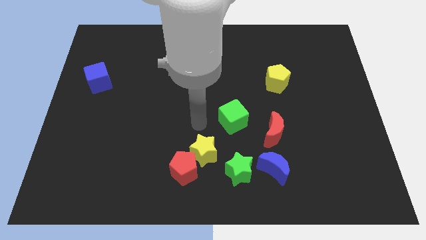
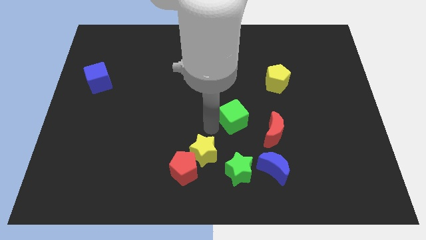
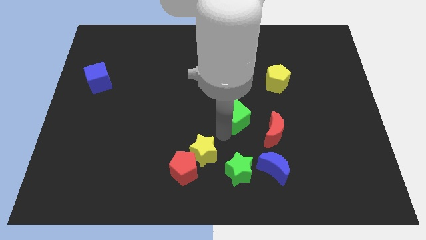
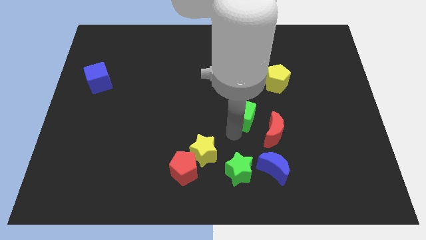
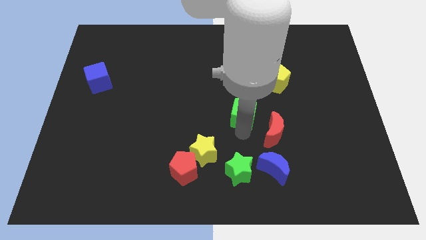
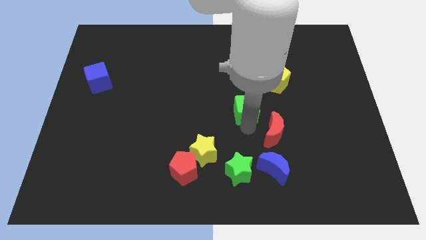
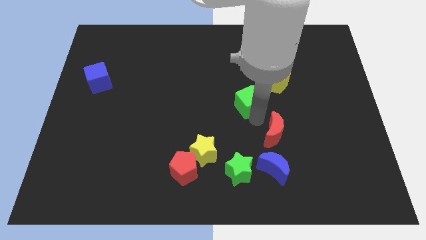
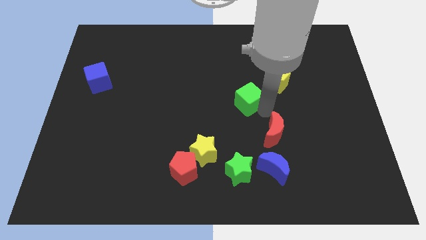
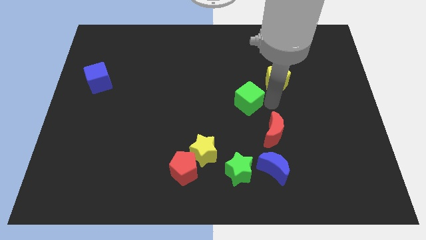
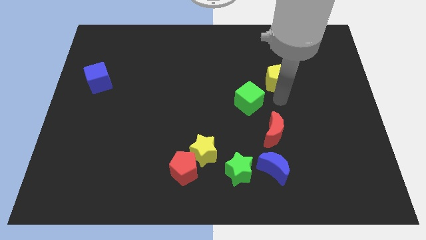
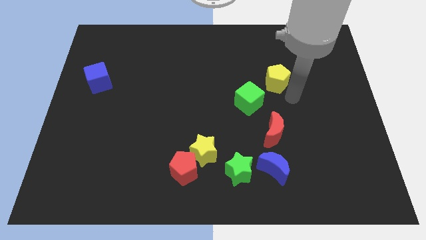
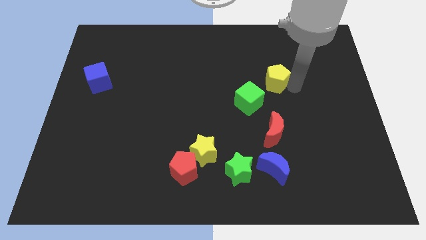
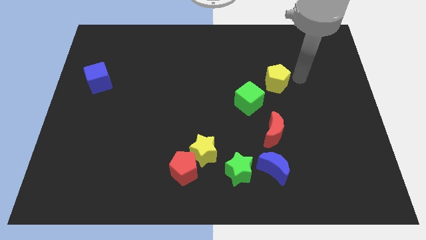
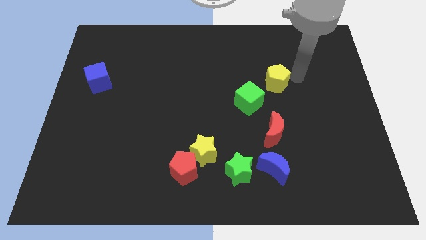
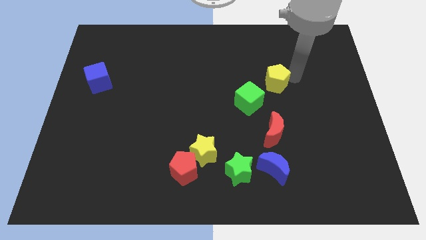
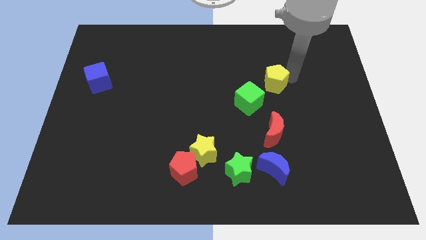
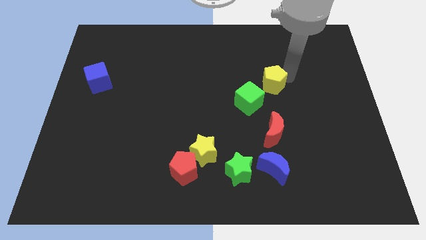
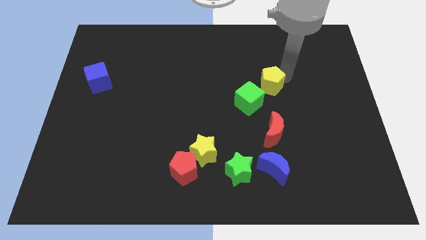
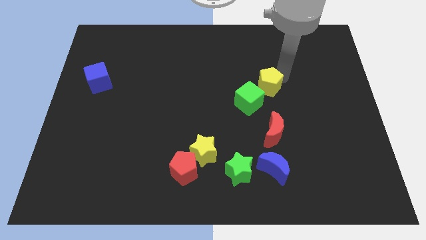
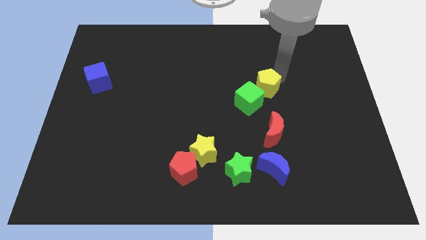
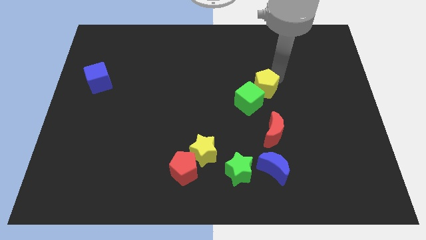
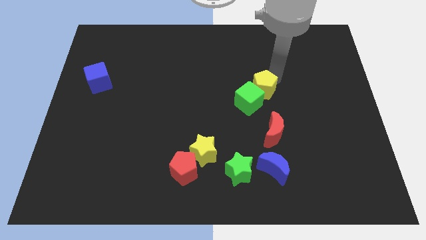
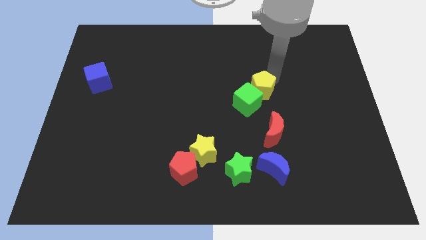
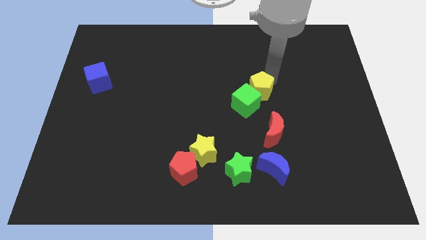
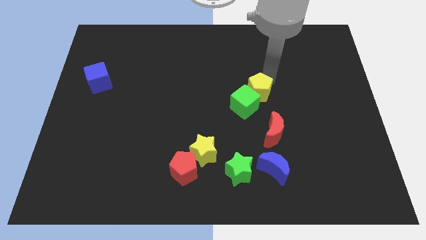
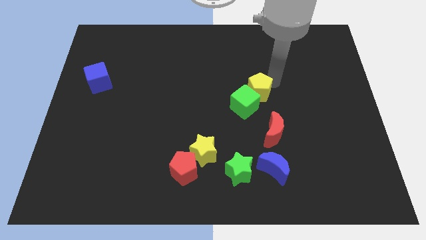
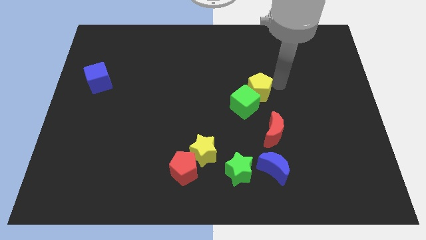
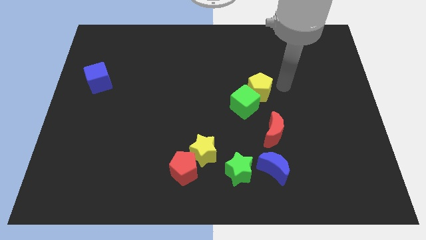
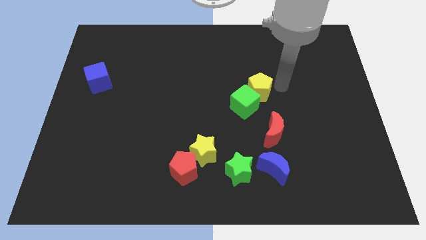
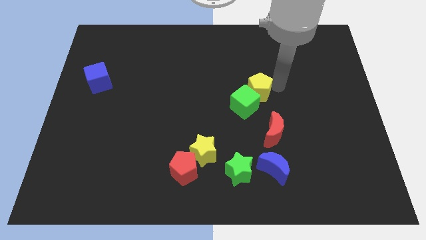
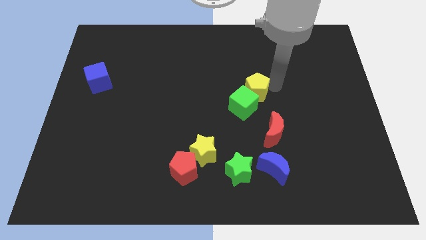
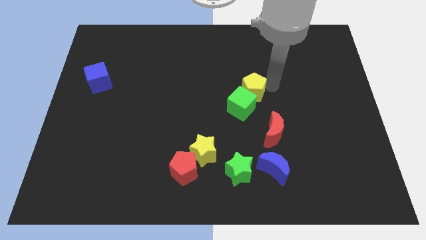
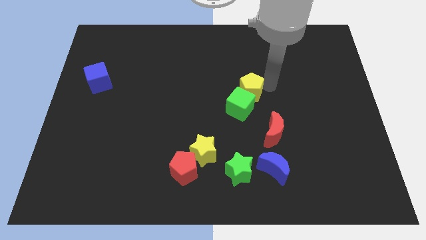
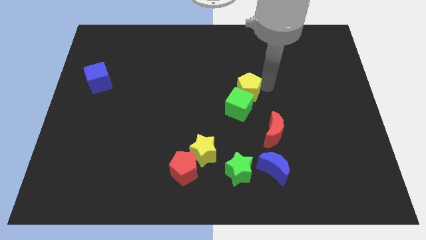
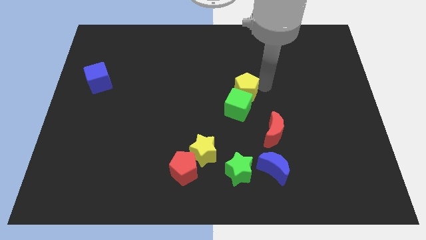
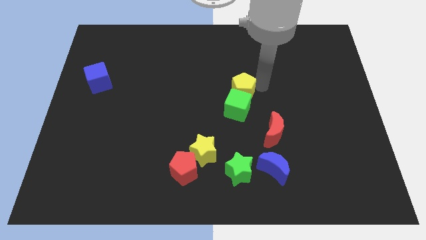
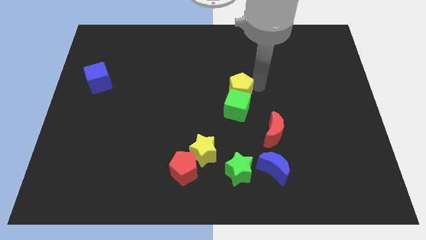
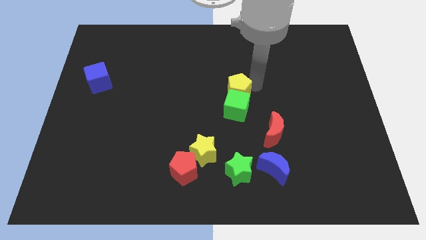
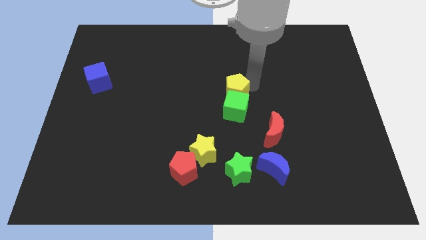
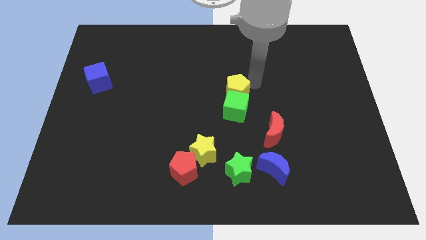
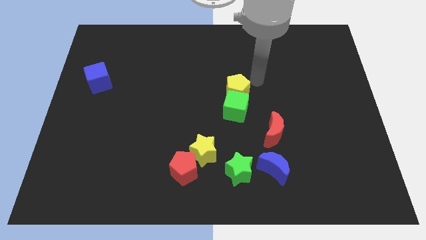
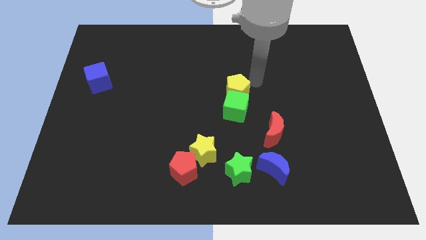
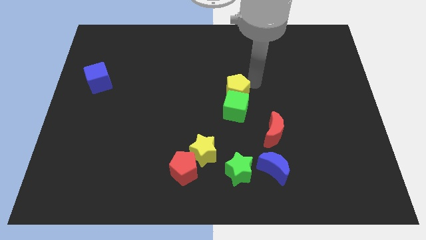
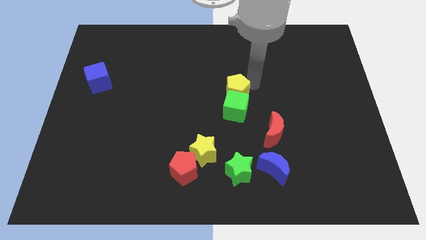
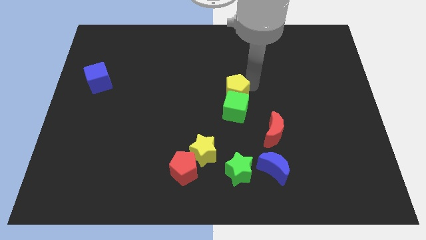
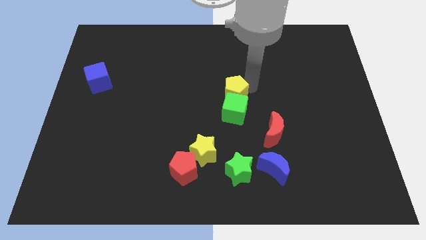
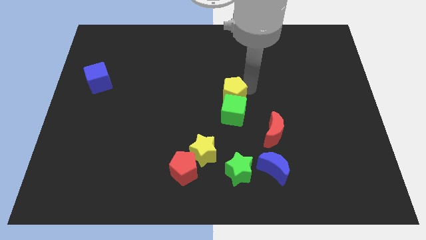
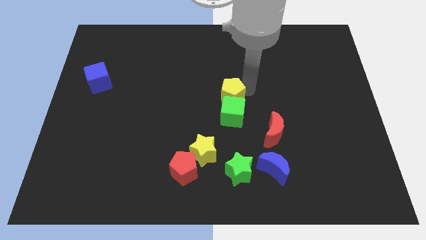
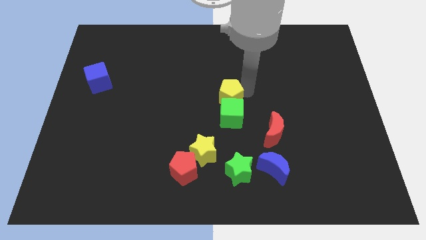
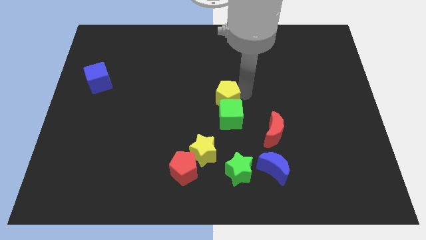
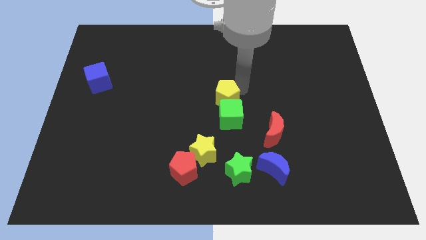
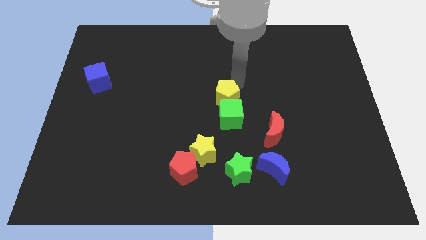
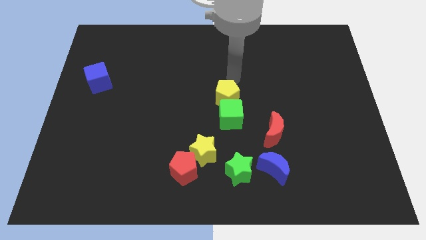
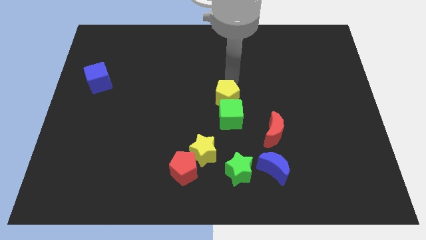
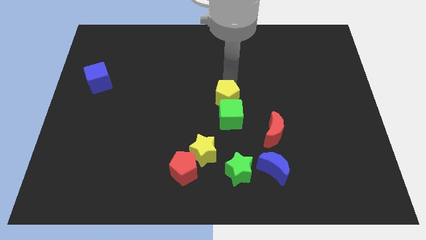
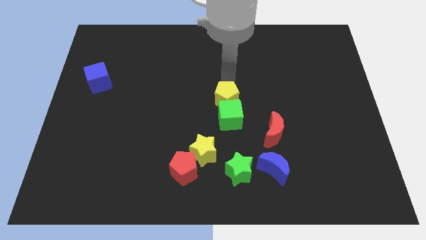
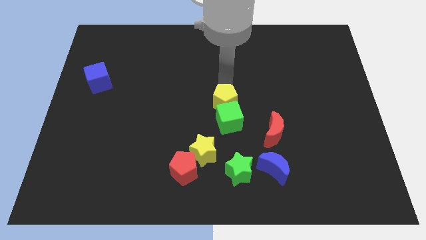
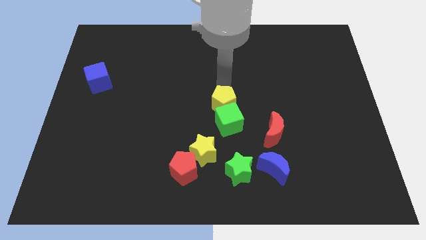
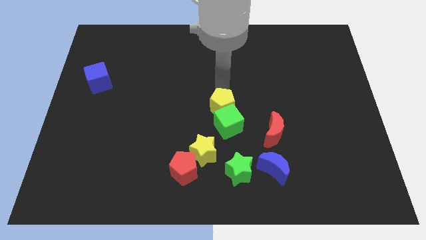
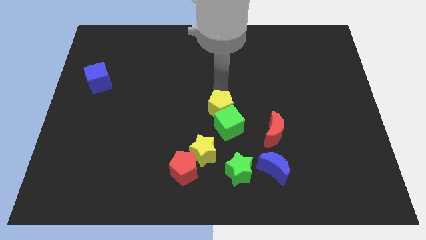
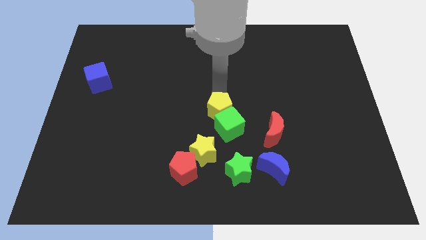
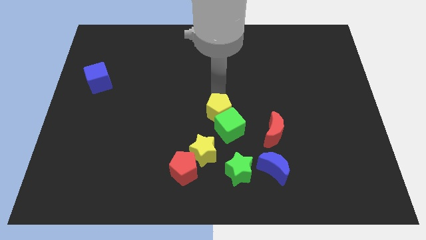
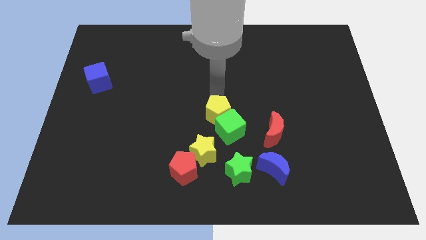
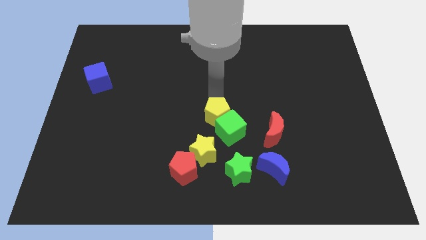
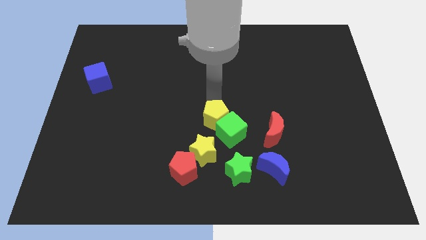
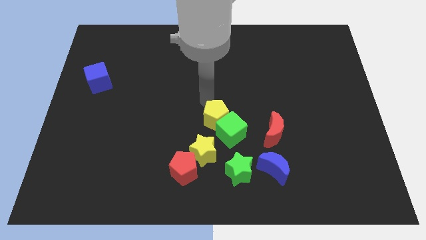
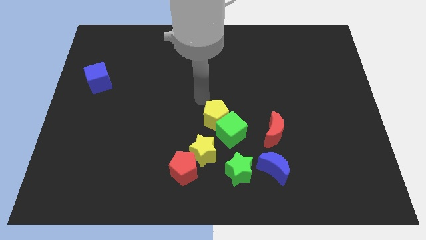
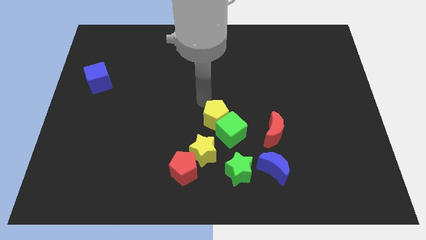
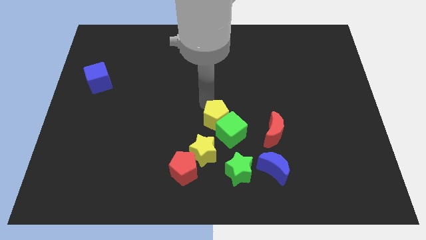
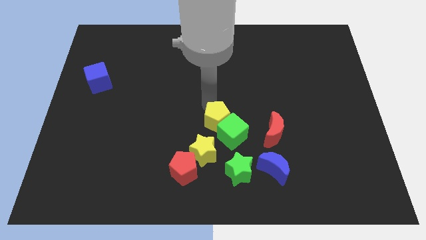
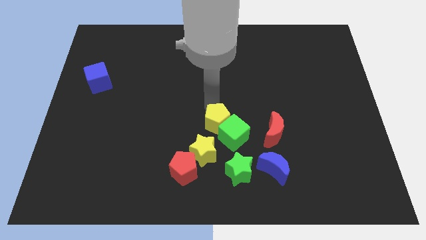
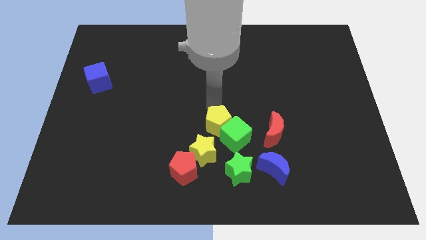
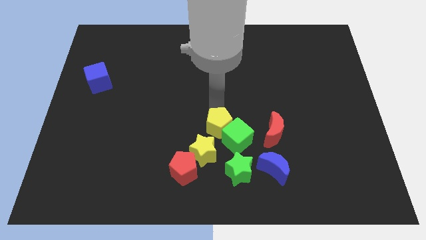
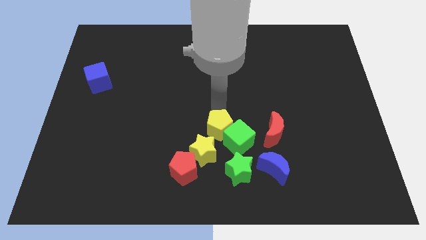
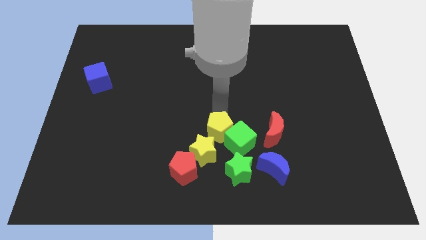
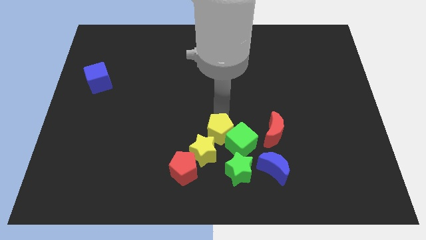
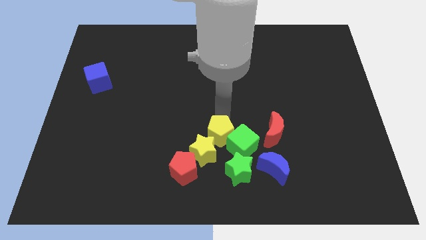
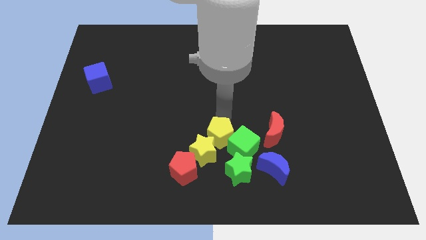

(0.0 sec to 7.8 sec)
slide the yellow pentagon just right of the yellow star
